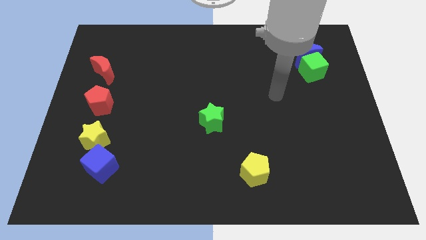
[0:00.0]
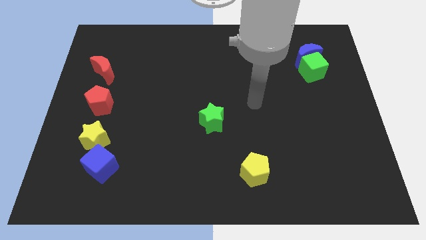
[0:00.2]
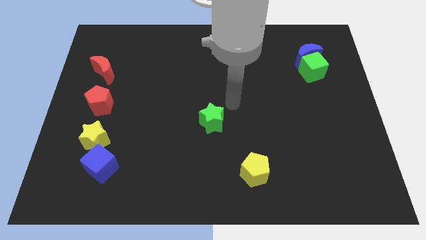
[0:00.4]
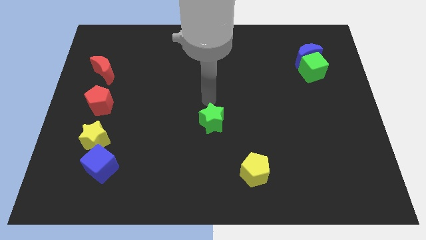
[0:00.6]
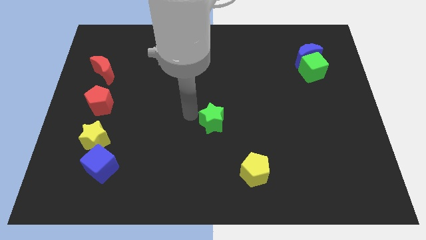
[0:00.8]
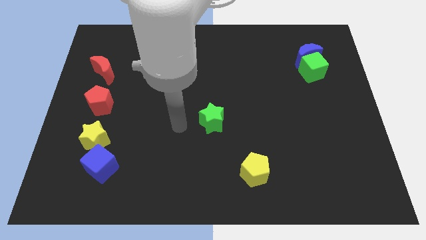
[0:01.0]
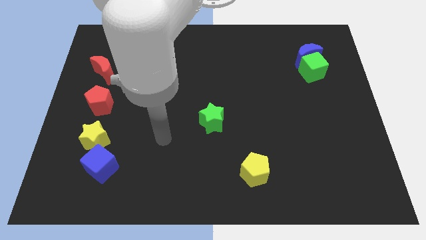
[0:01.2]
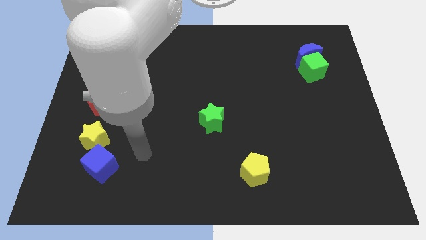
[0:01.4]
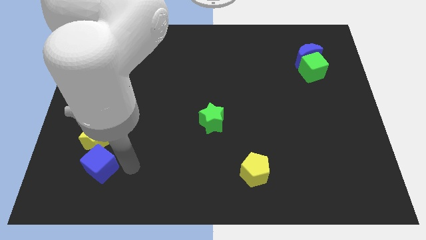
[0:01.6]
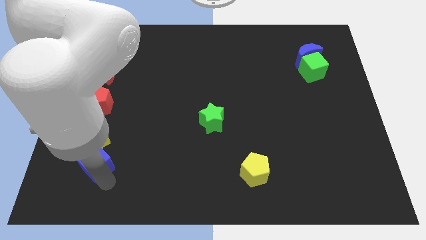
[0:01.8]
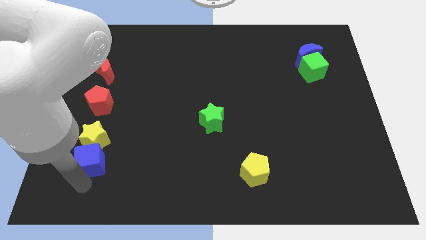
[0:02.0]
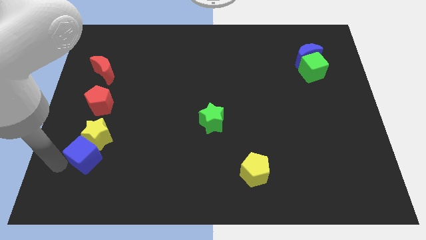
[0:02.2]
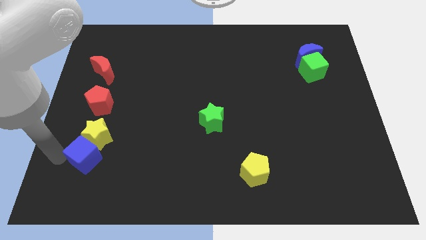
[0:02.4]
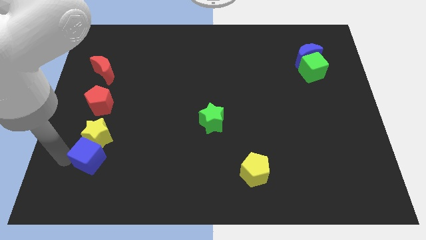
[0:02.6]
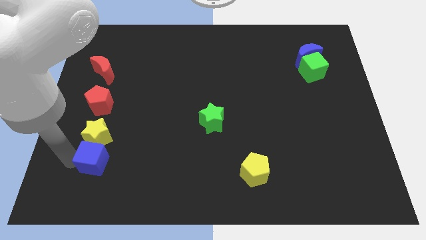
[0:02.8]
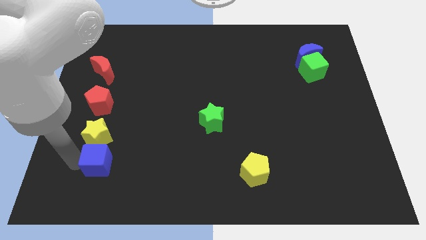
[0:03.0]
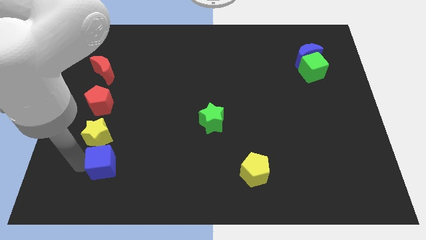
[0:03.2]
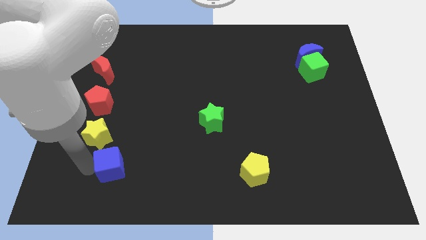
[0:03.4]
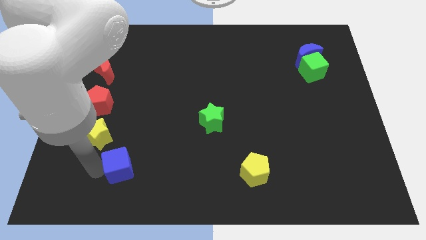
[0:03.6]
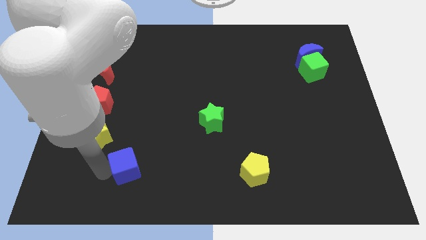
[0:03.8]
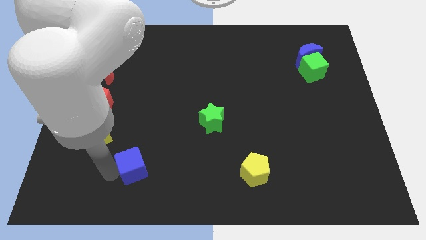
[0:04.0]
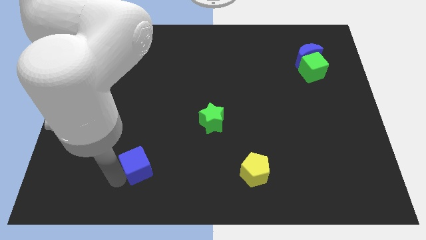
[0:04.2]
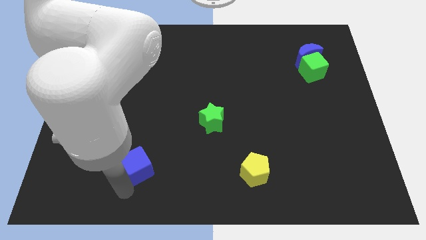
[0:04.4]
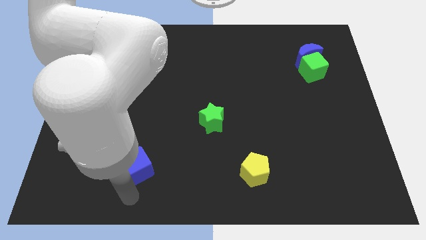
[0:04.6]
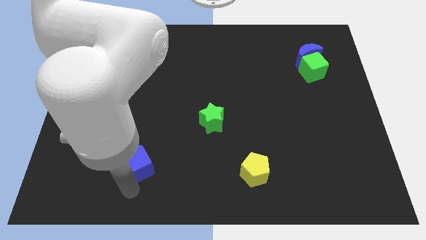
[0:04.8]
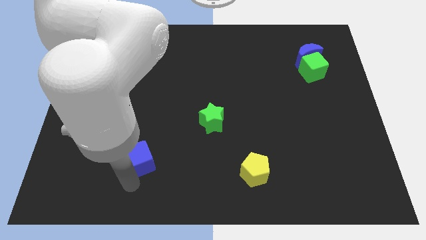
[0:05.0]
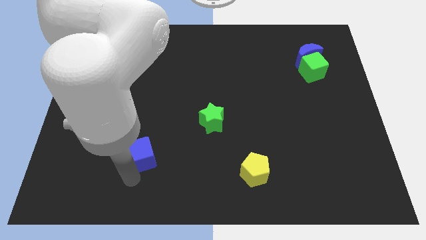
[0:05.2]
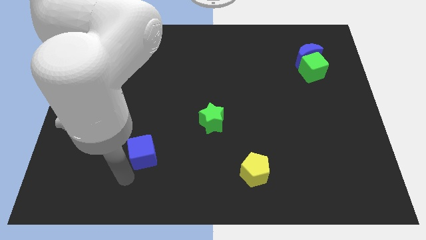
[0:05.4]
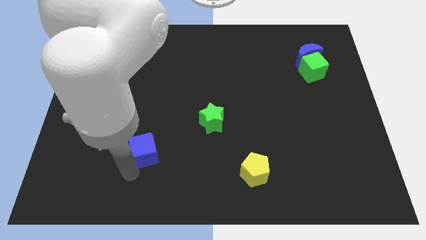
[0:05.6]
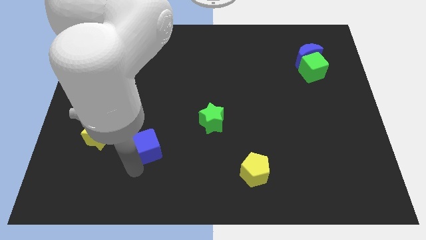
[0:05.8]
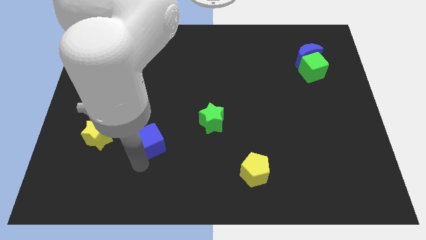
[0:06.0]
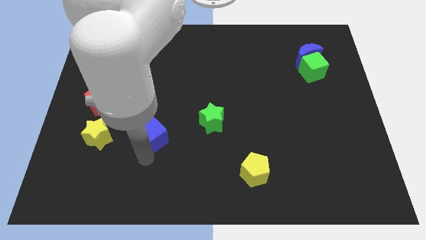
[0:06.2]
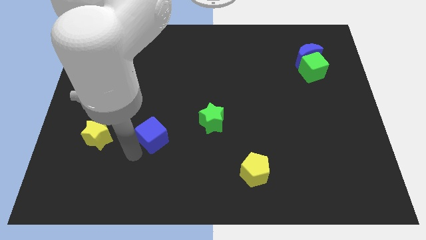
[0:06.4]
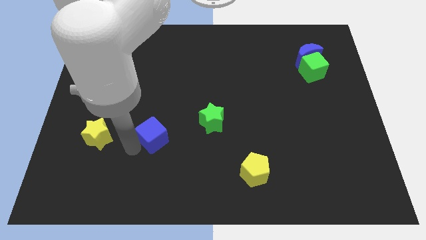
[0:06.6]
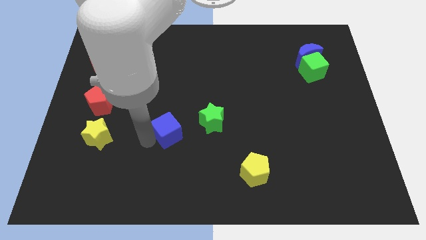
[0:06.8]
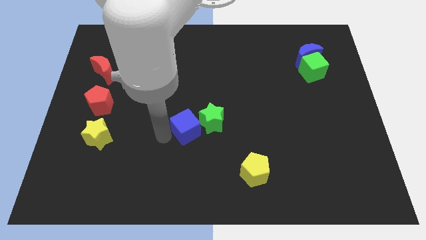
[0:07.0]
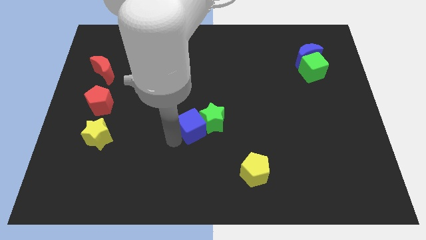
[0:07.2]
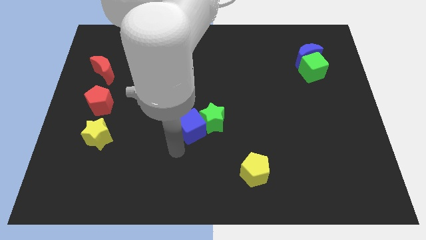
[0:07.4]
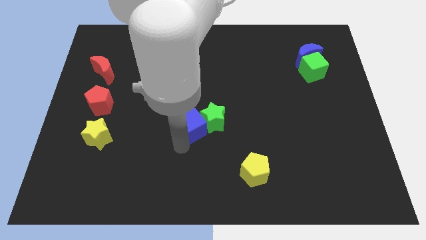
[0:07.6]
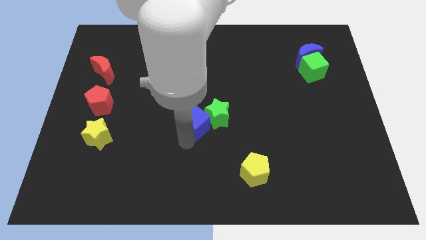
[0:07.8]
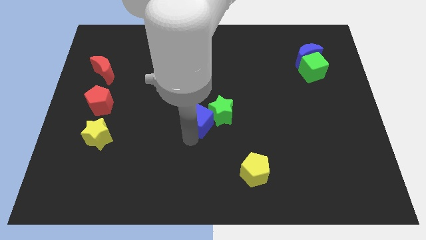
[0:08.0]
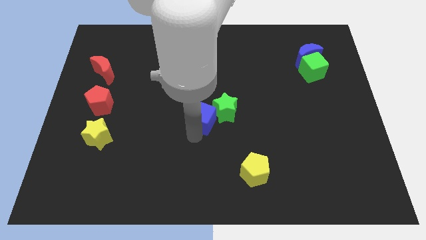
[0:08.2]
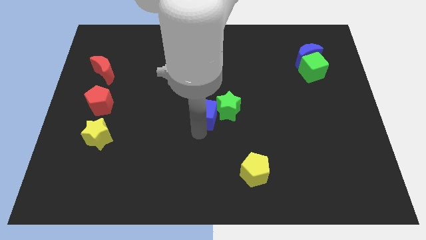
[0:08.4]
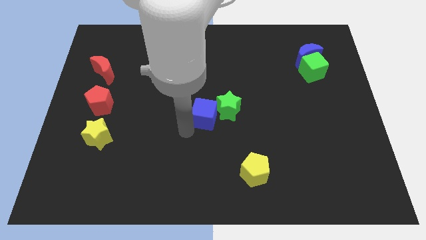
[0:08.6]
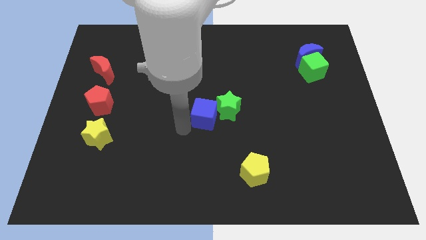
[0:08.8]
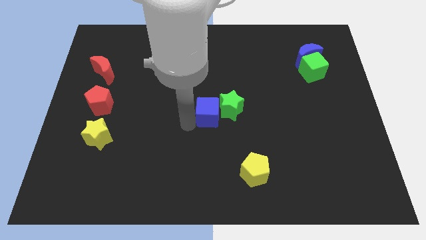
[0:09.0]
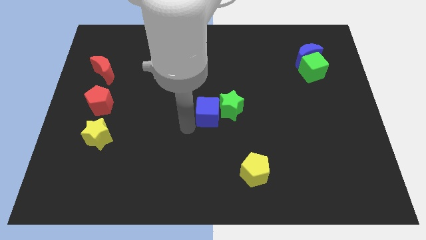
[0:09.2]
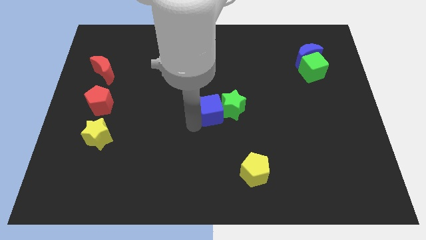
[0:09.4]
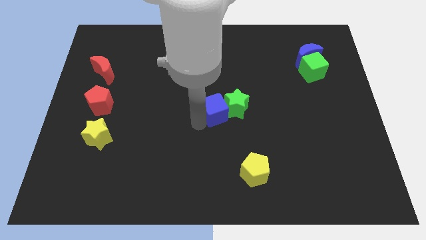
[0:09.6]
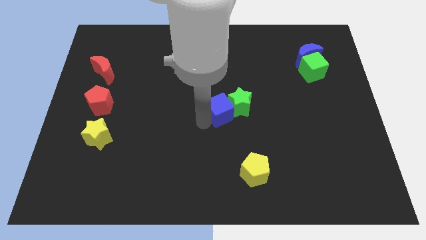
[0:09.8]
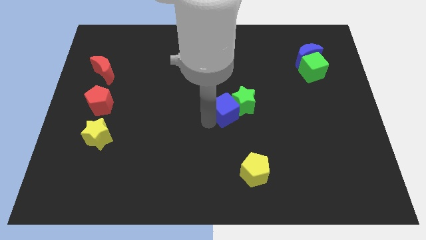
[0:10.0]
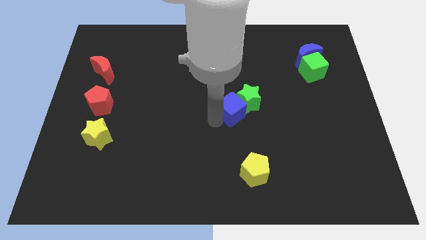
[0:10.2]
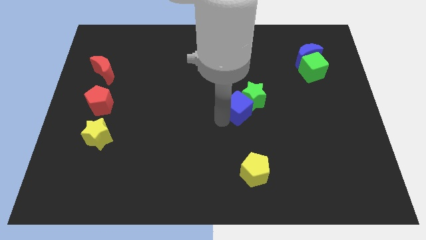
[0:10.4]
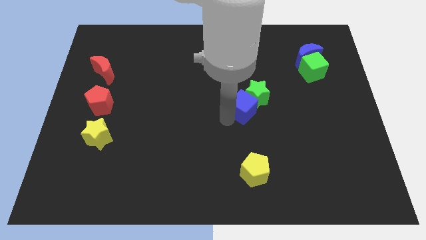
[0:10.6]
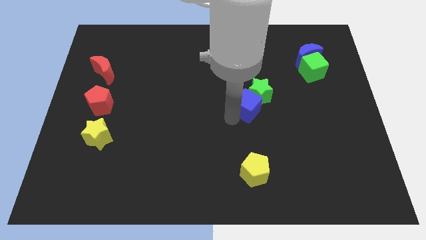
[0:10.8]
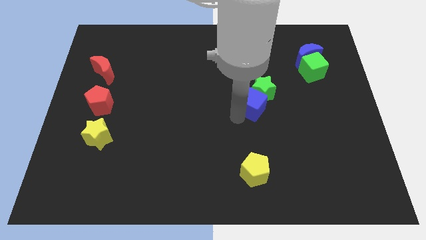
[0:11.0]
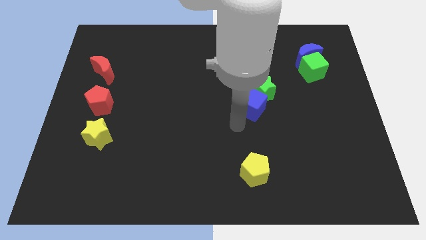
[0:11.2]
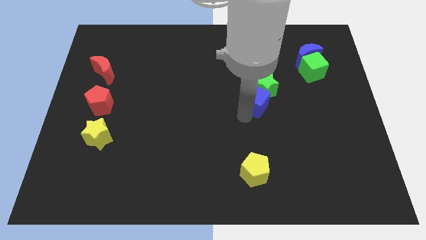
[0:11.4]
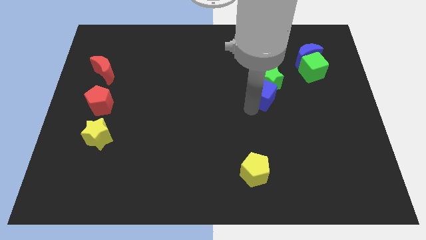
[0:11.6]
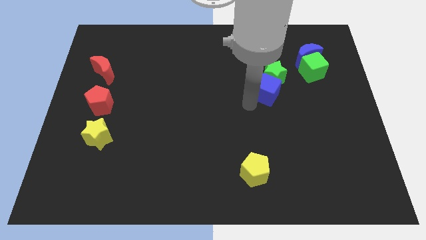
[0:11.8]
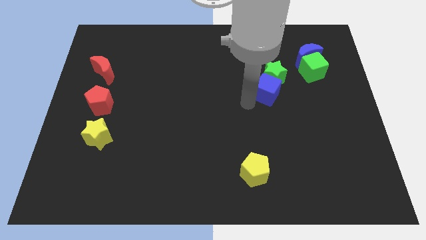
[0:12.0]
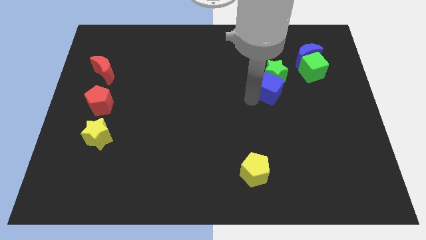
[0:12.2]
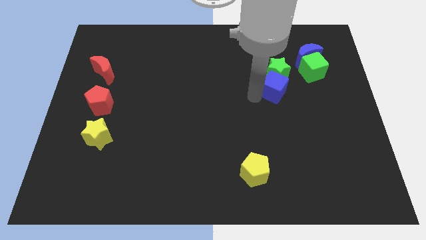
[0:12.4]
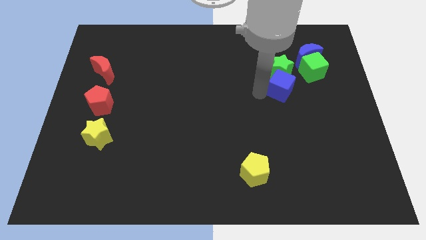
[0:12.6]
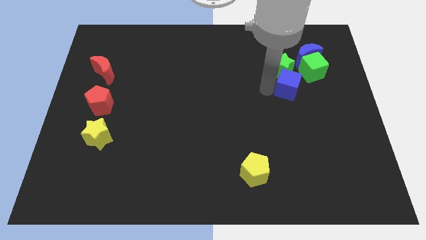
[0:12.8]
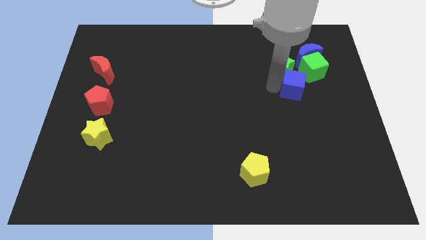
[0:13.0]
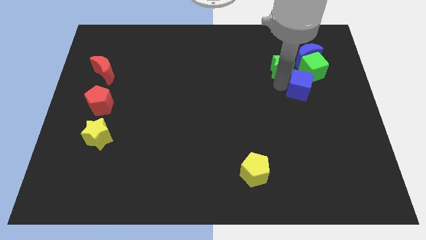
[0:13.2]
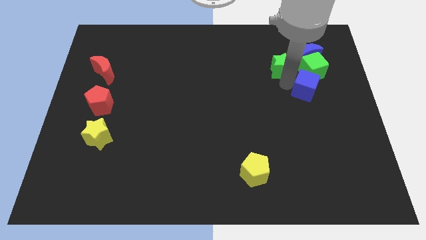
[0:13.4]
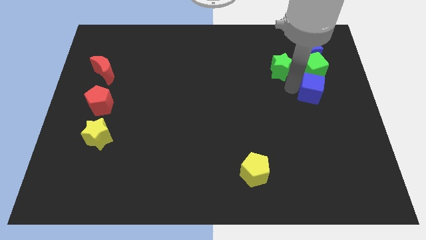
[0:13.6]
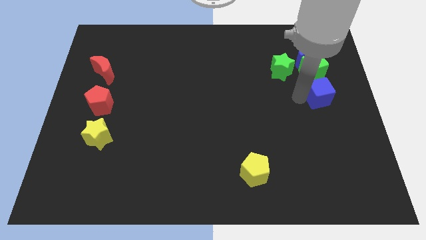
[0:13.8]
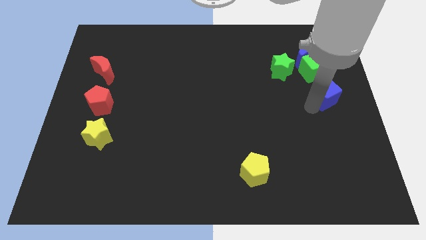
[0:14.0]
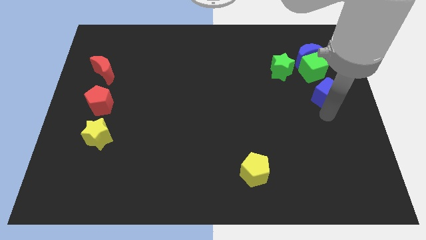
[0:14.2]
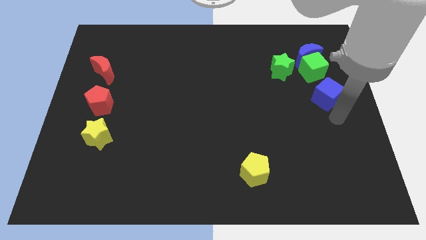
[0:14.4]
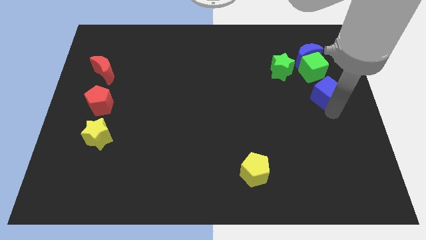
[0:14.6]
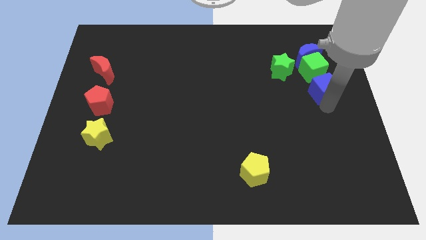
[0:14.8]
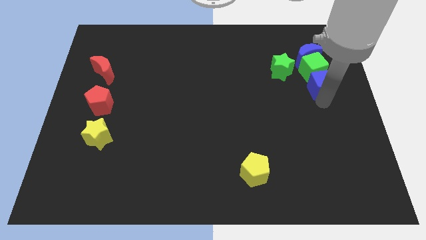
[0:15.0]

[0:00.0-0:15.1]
slide the blue cube next to the green cube
